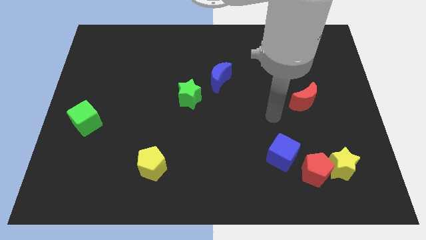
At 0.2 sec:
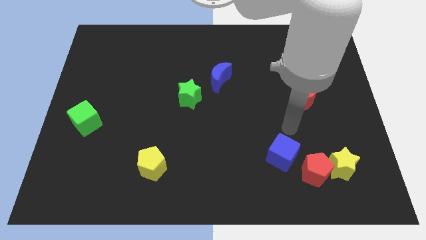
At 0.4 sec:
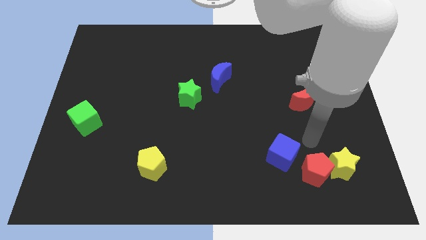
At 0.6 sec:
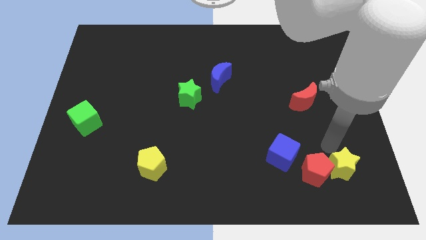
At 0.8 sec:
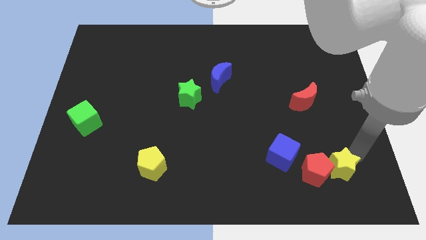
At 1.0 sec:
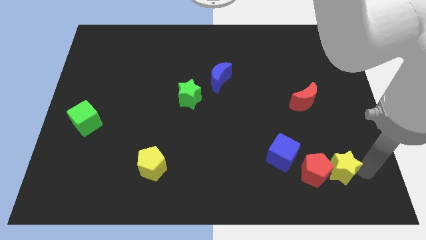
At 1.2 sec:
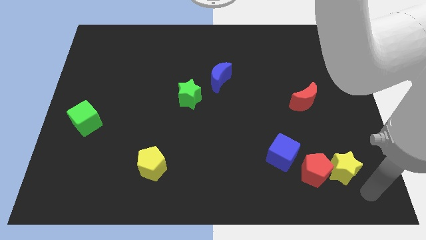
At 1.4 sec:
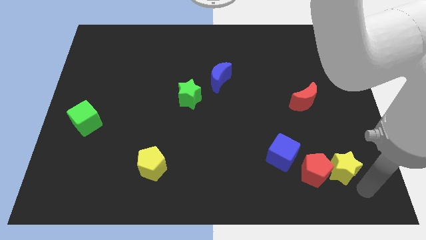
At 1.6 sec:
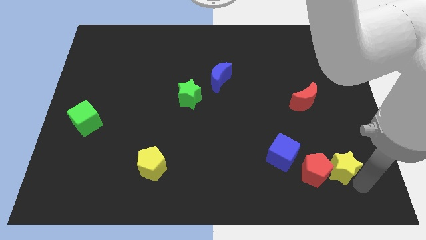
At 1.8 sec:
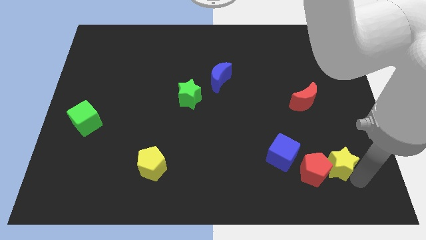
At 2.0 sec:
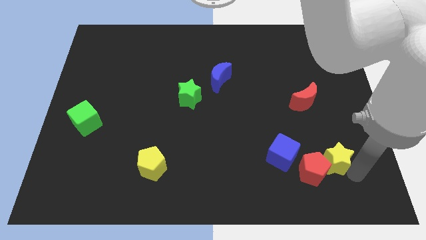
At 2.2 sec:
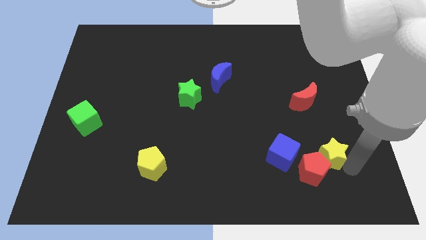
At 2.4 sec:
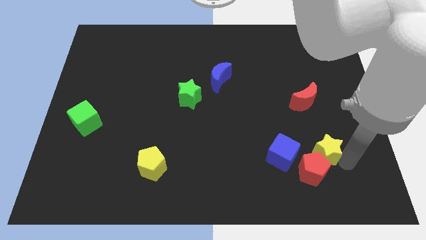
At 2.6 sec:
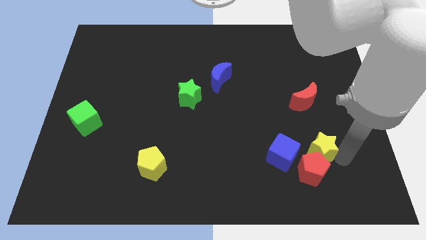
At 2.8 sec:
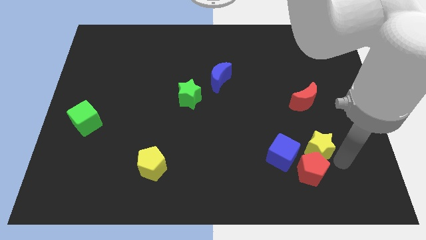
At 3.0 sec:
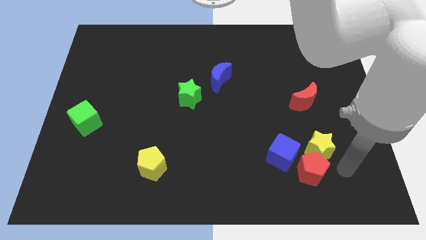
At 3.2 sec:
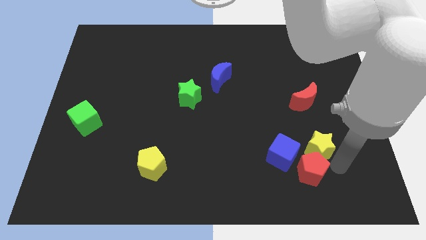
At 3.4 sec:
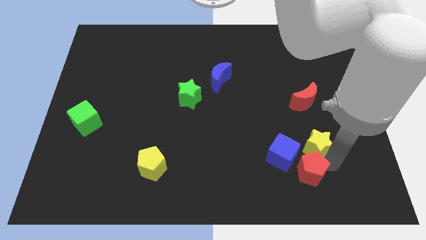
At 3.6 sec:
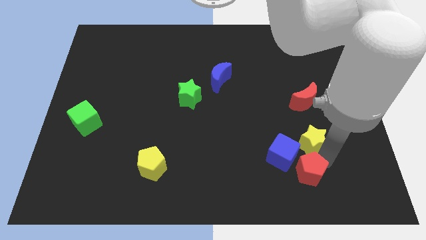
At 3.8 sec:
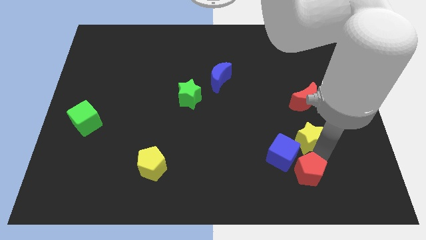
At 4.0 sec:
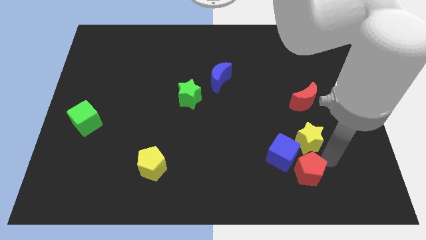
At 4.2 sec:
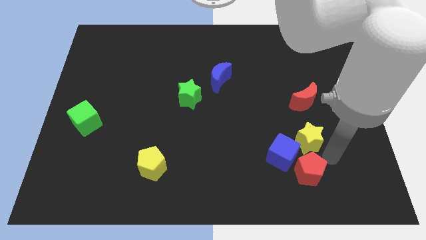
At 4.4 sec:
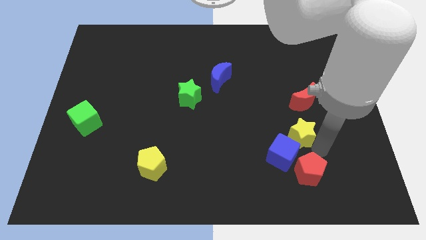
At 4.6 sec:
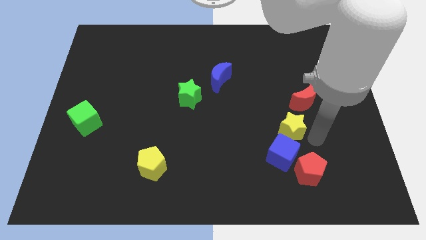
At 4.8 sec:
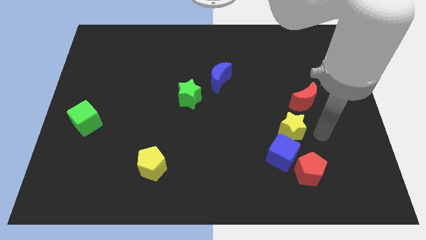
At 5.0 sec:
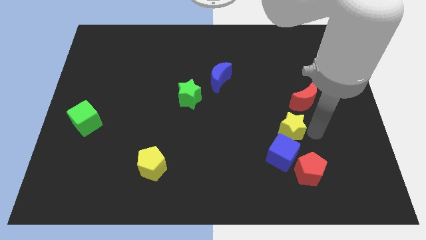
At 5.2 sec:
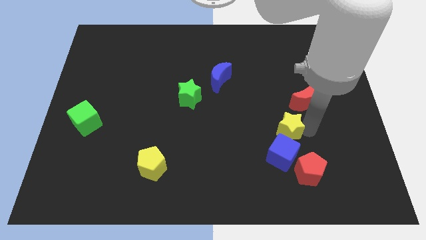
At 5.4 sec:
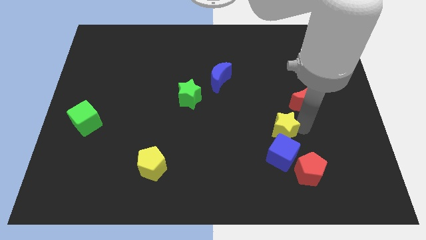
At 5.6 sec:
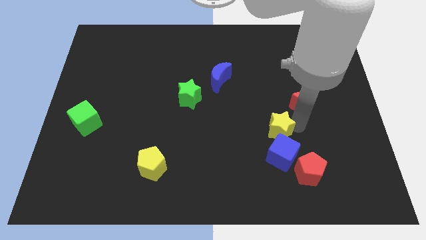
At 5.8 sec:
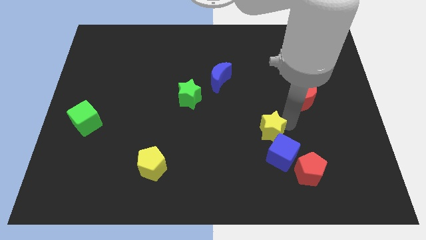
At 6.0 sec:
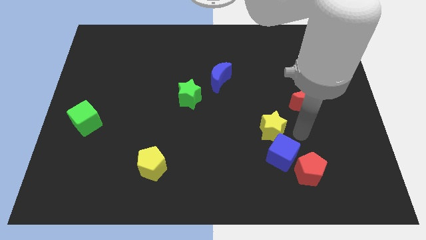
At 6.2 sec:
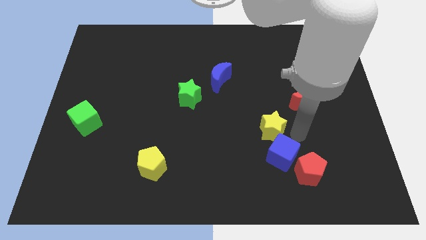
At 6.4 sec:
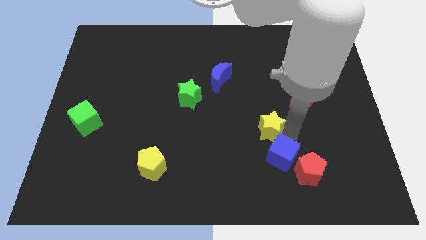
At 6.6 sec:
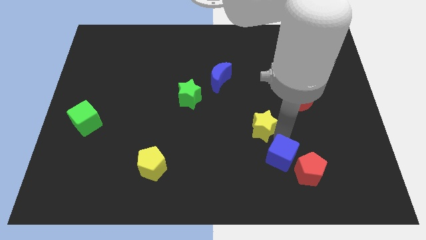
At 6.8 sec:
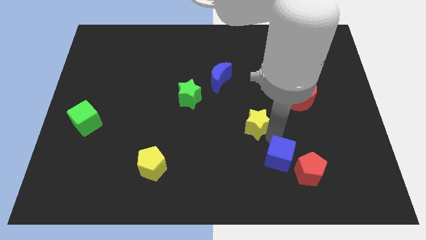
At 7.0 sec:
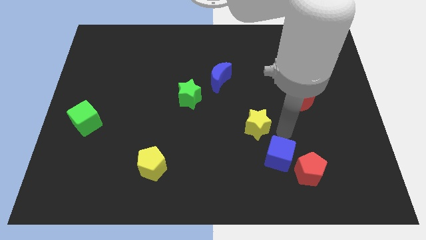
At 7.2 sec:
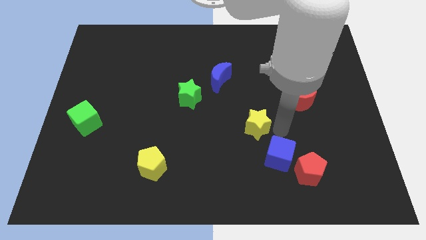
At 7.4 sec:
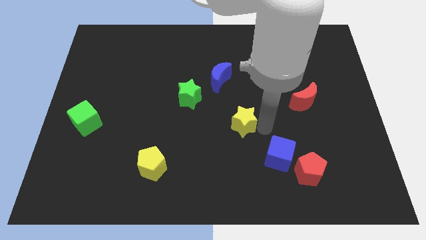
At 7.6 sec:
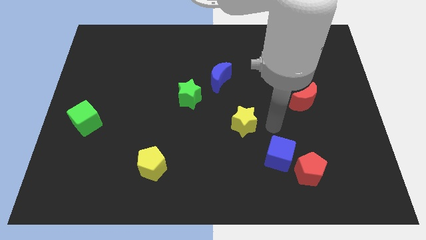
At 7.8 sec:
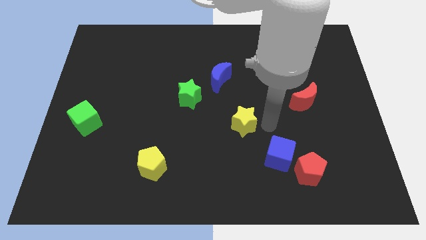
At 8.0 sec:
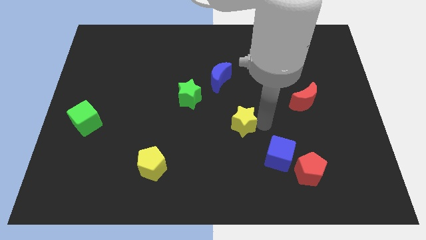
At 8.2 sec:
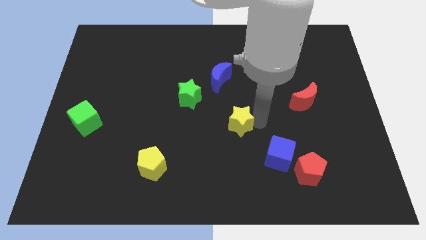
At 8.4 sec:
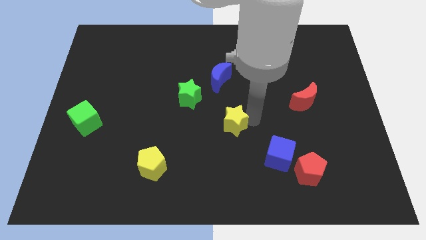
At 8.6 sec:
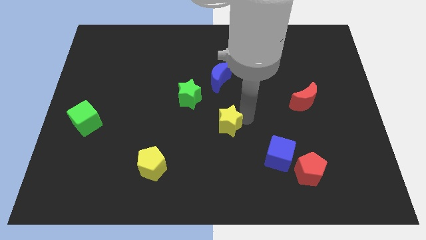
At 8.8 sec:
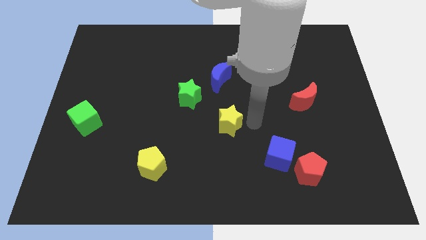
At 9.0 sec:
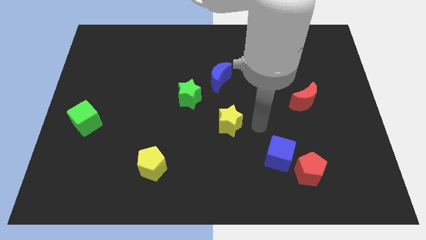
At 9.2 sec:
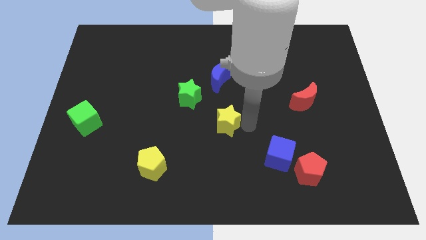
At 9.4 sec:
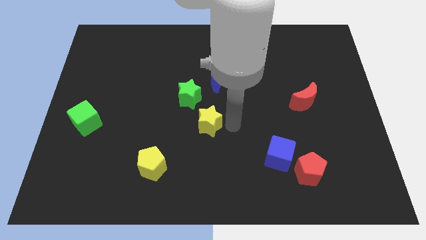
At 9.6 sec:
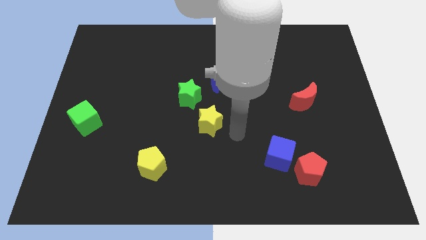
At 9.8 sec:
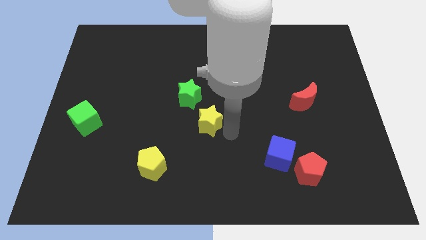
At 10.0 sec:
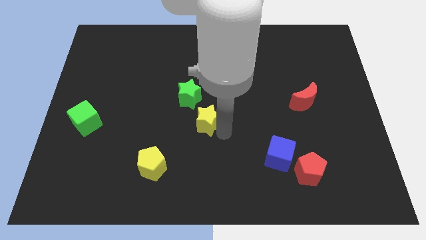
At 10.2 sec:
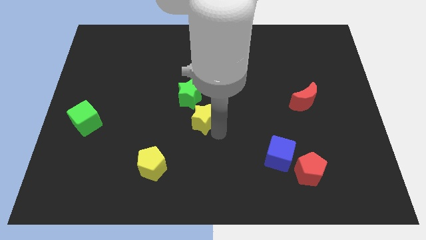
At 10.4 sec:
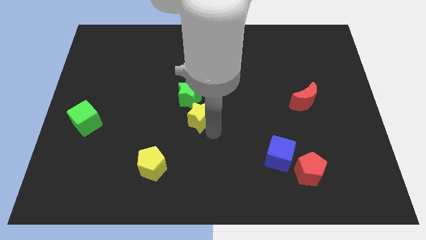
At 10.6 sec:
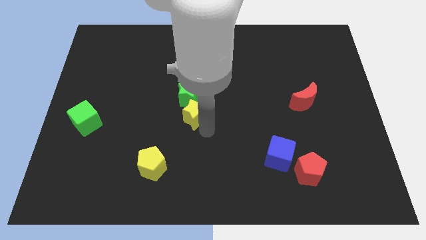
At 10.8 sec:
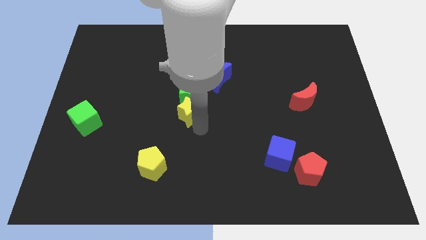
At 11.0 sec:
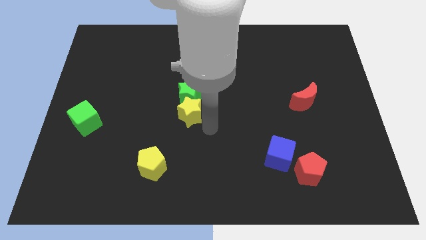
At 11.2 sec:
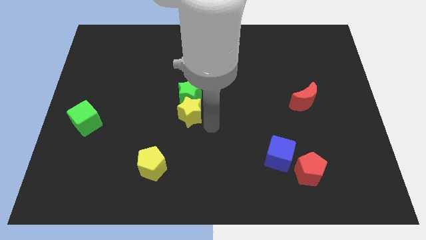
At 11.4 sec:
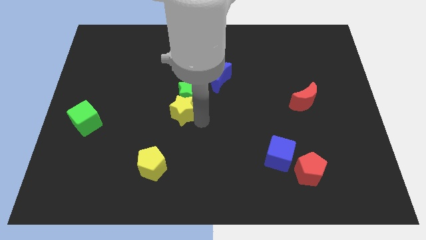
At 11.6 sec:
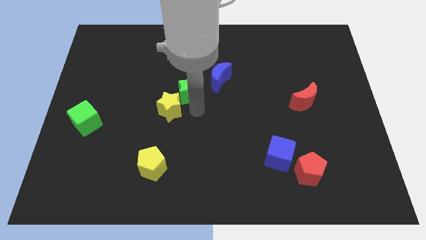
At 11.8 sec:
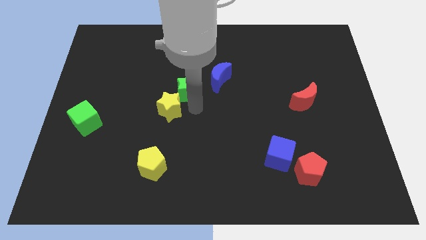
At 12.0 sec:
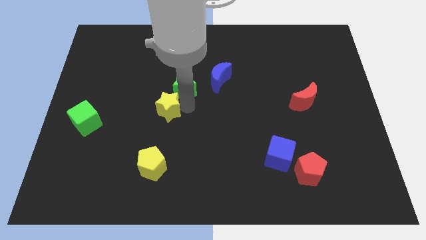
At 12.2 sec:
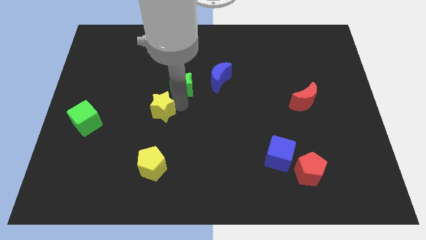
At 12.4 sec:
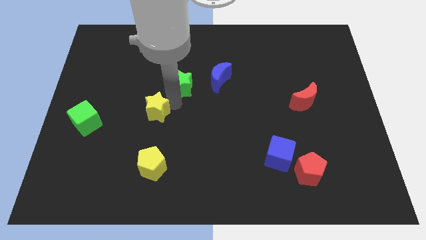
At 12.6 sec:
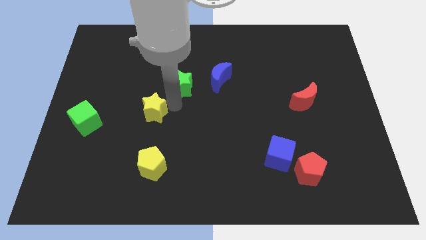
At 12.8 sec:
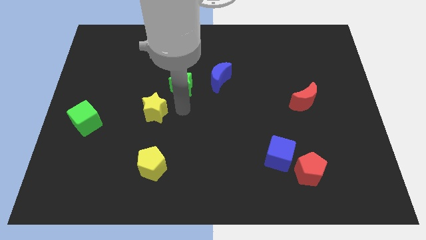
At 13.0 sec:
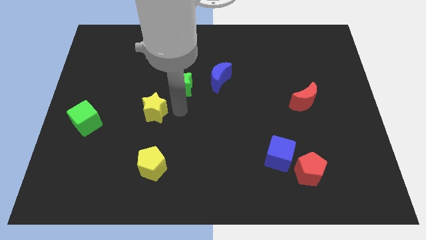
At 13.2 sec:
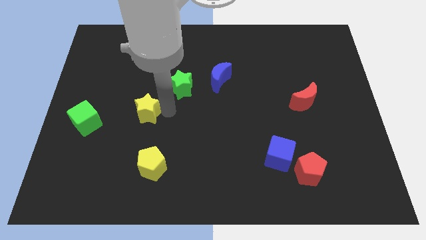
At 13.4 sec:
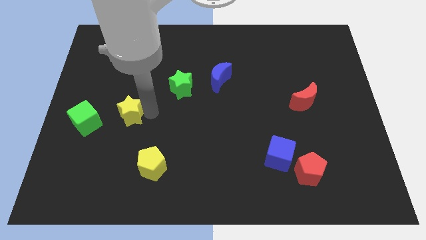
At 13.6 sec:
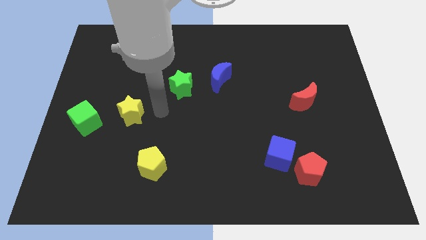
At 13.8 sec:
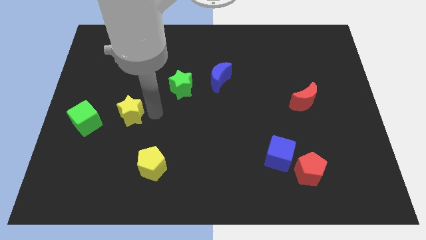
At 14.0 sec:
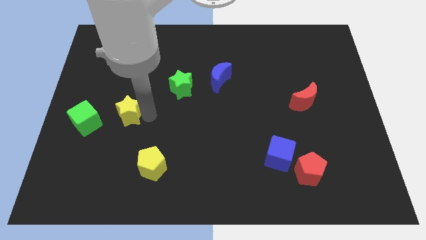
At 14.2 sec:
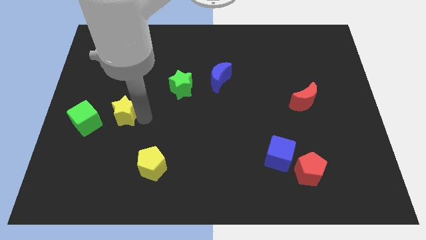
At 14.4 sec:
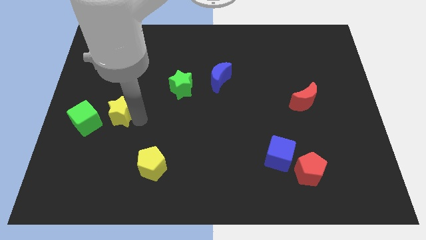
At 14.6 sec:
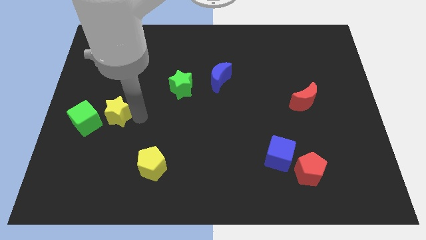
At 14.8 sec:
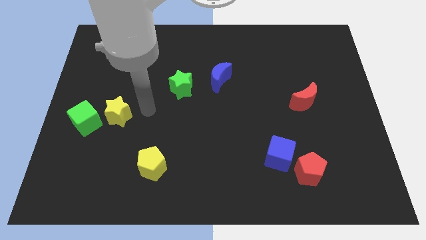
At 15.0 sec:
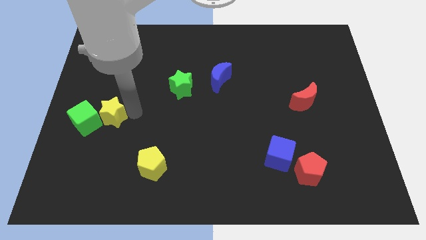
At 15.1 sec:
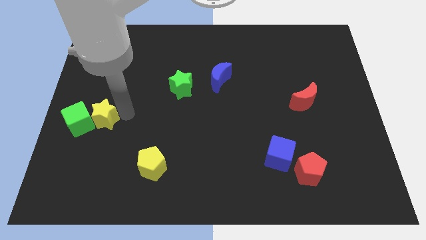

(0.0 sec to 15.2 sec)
put the yellow star towards the green cube
